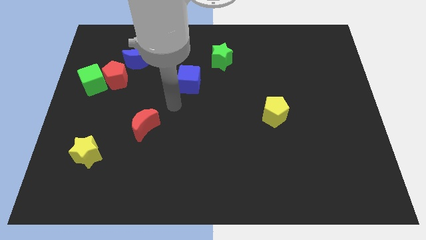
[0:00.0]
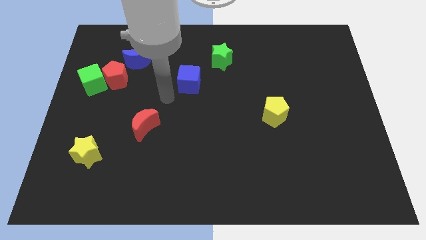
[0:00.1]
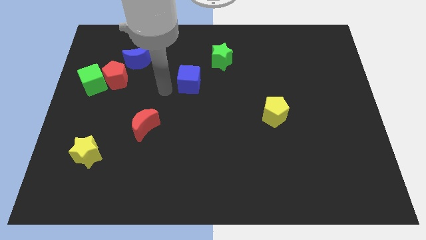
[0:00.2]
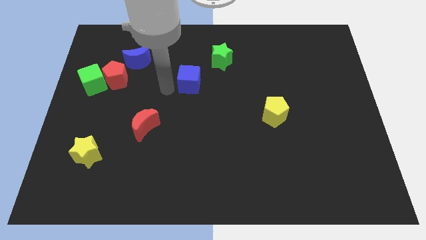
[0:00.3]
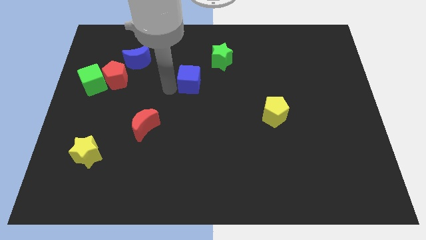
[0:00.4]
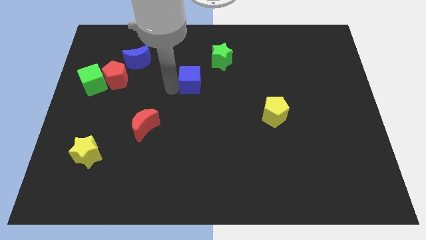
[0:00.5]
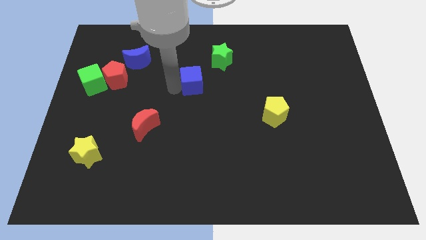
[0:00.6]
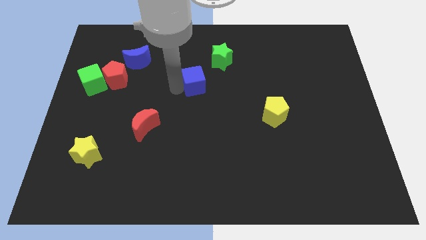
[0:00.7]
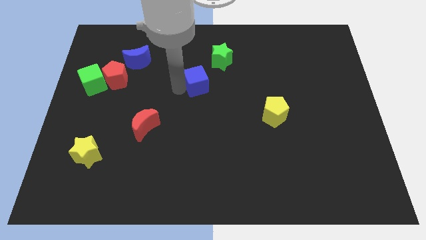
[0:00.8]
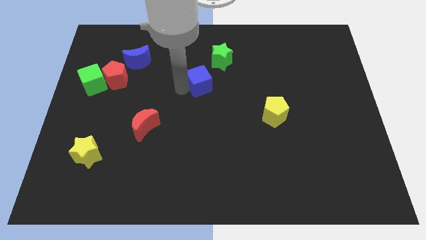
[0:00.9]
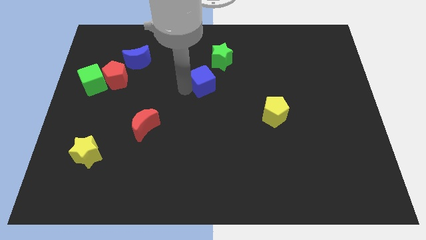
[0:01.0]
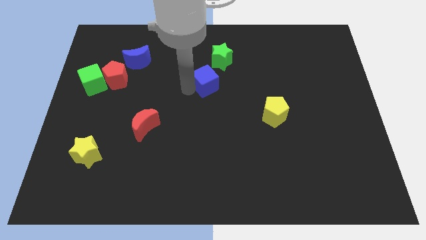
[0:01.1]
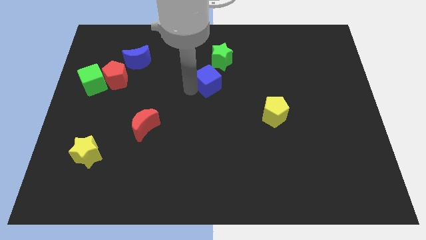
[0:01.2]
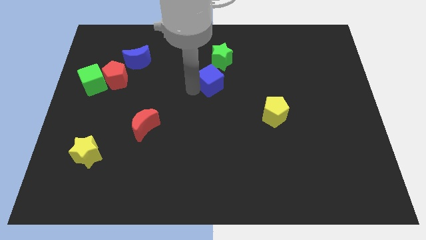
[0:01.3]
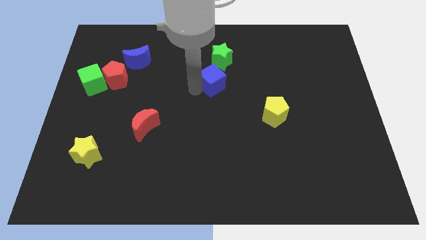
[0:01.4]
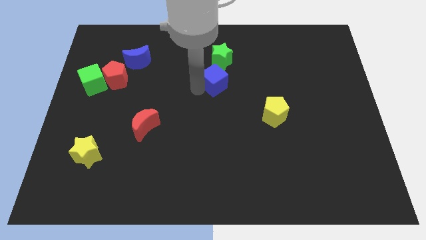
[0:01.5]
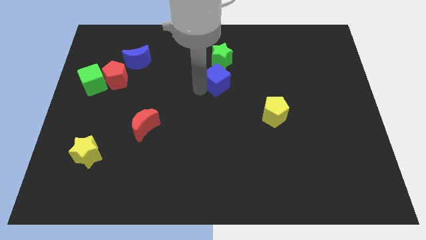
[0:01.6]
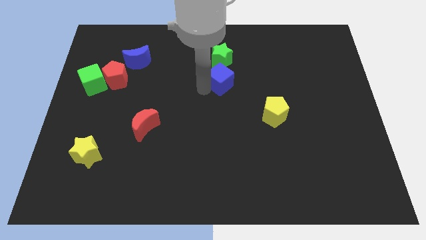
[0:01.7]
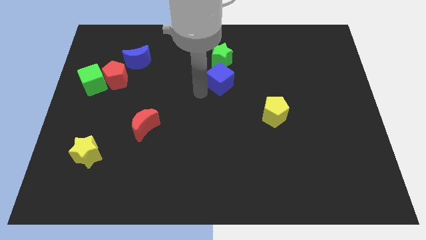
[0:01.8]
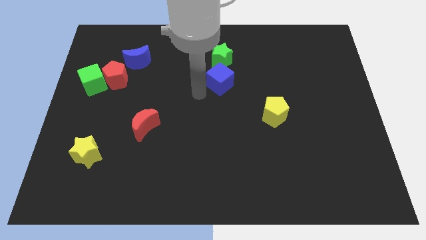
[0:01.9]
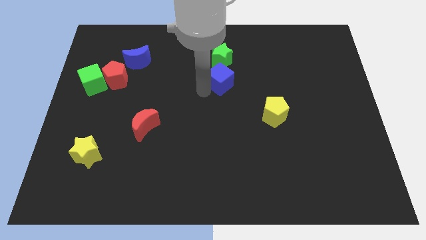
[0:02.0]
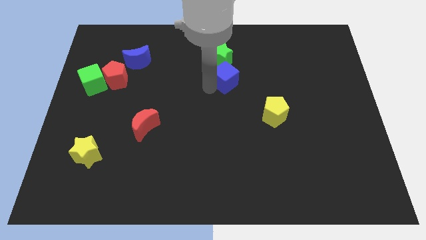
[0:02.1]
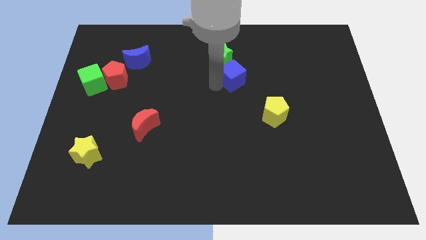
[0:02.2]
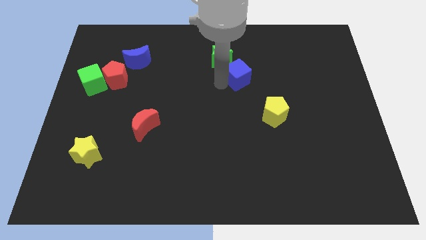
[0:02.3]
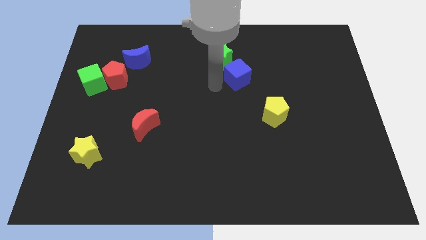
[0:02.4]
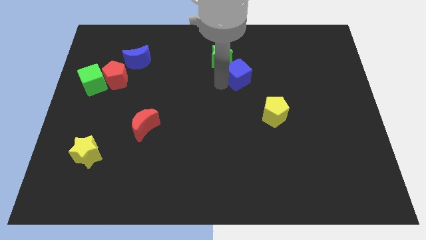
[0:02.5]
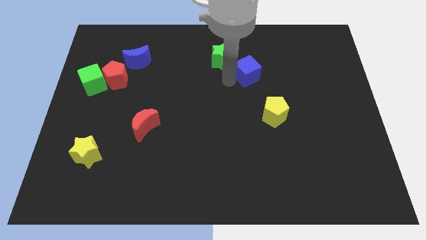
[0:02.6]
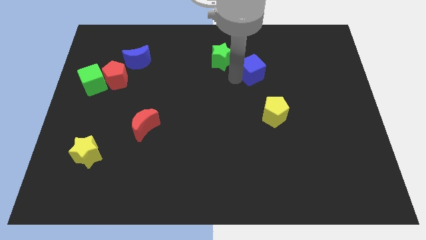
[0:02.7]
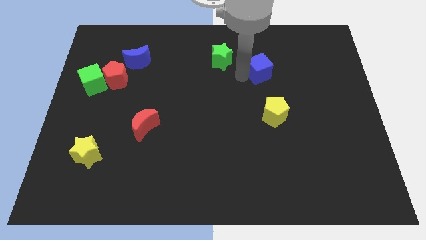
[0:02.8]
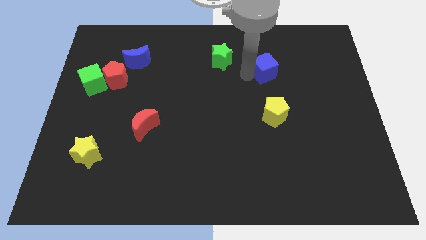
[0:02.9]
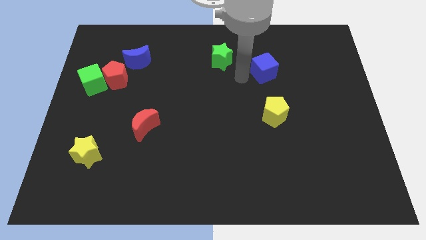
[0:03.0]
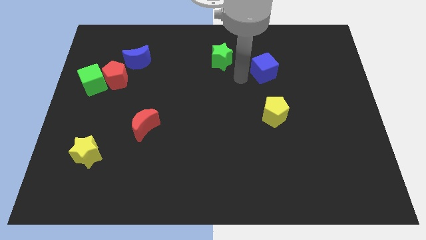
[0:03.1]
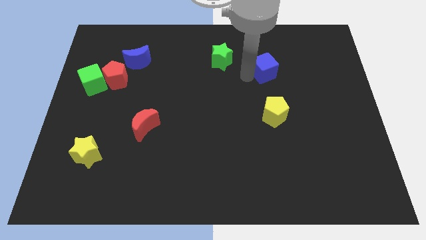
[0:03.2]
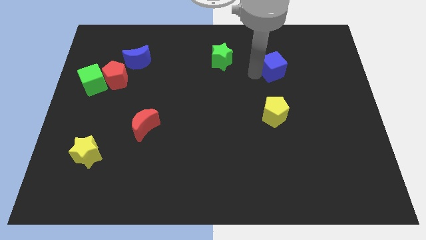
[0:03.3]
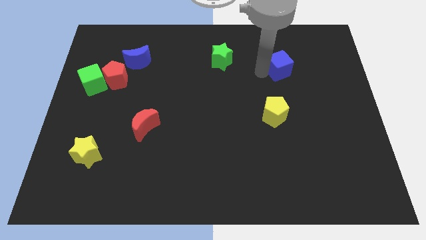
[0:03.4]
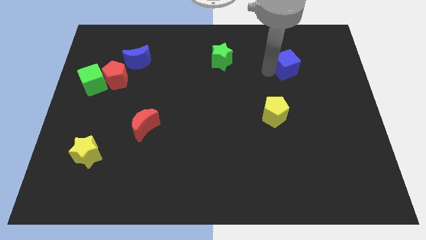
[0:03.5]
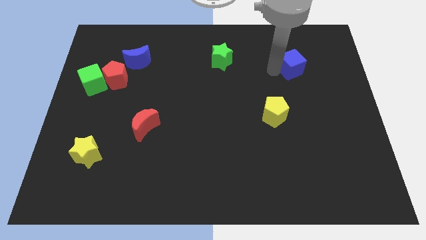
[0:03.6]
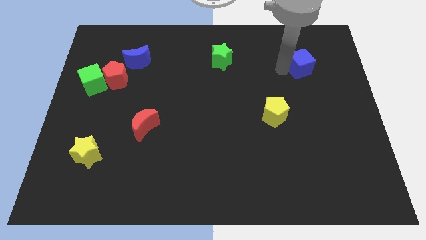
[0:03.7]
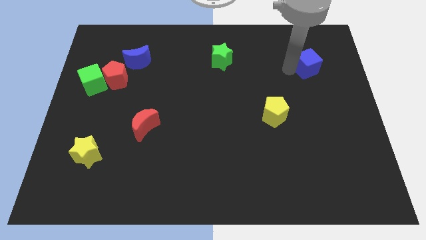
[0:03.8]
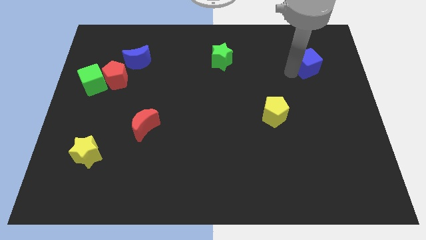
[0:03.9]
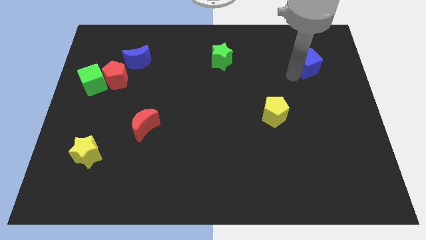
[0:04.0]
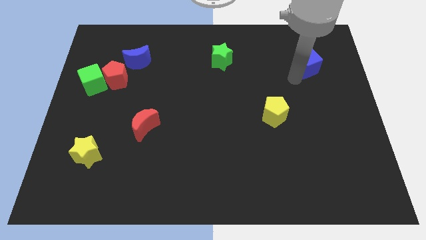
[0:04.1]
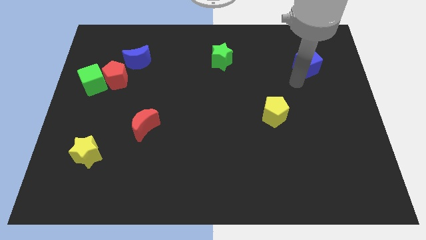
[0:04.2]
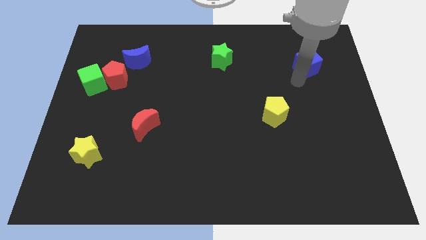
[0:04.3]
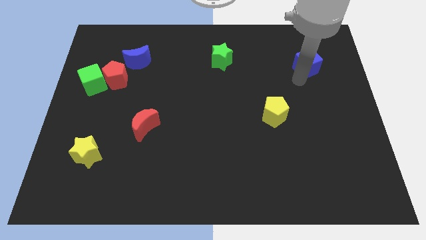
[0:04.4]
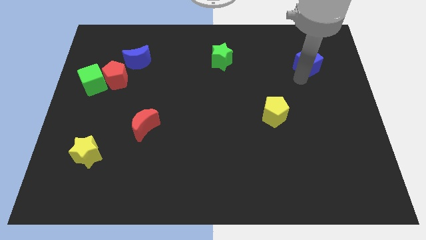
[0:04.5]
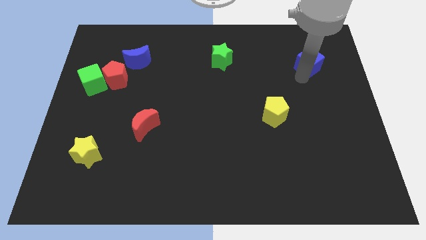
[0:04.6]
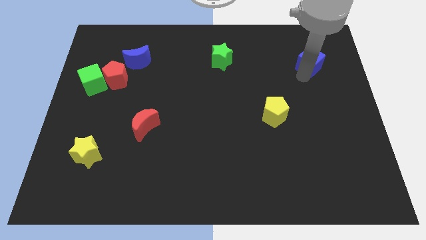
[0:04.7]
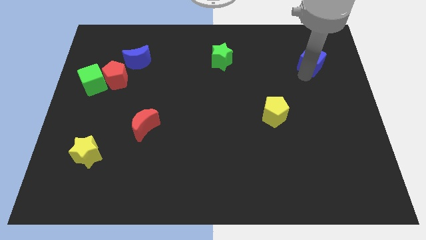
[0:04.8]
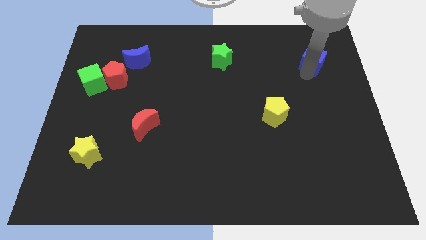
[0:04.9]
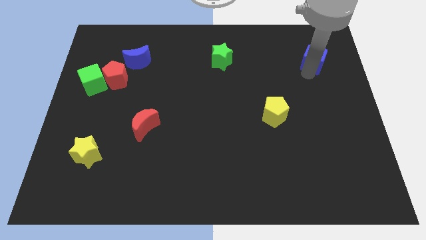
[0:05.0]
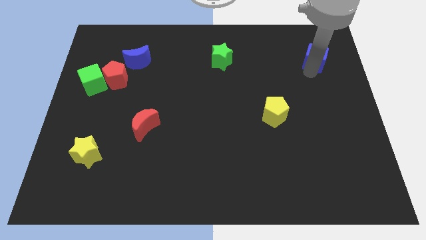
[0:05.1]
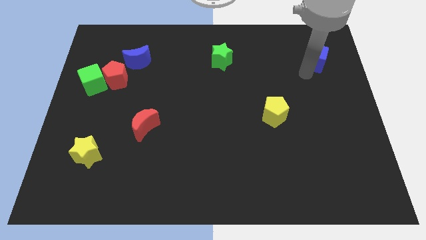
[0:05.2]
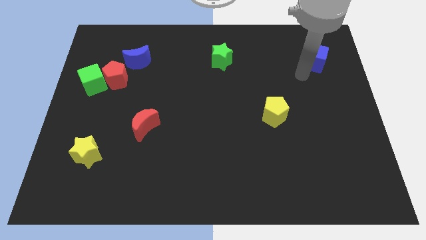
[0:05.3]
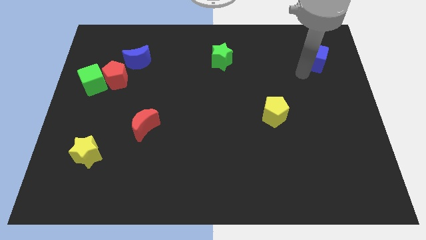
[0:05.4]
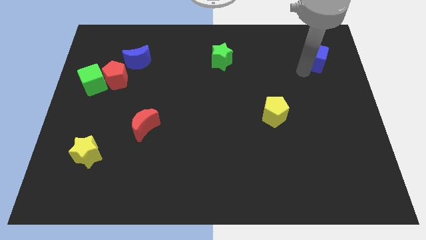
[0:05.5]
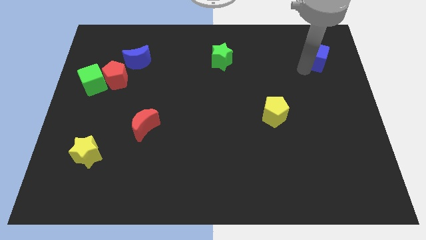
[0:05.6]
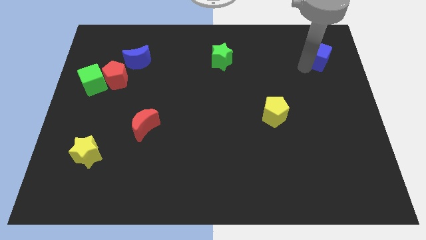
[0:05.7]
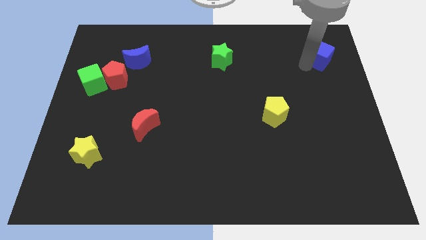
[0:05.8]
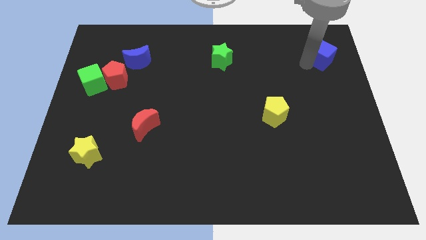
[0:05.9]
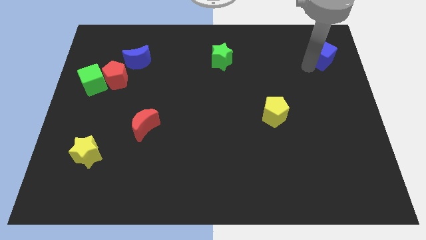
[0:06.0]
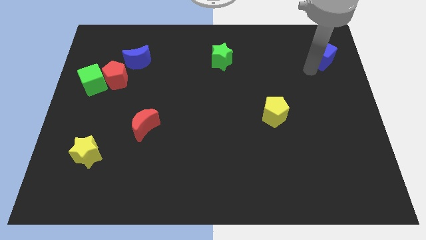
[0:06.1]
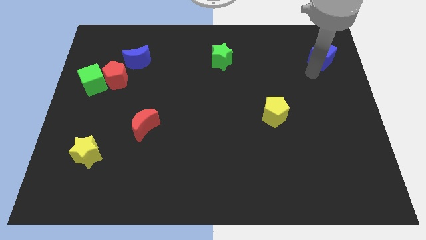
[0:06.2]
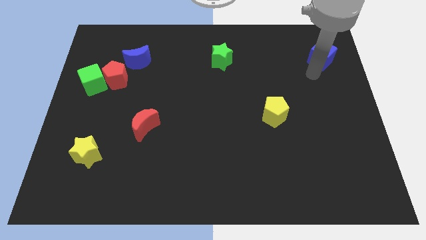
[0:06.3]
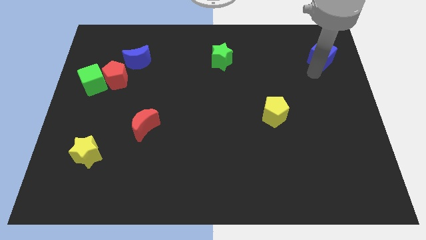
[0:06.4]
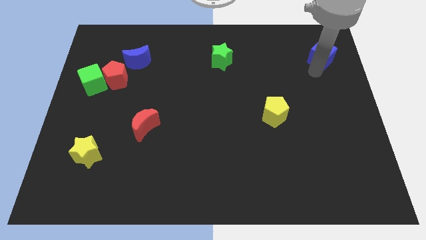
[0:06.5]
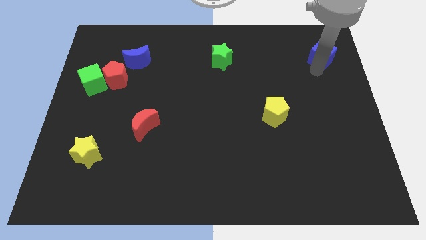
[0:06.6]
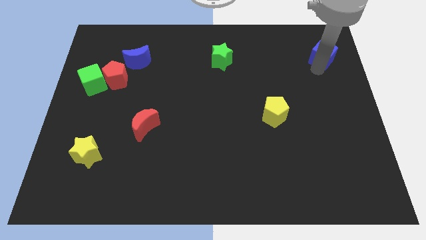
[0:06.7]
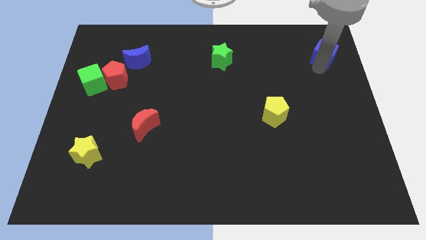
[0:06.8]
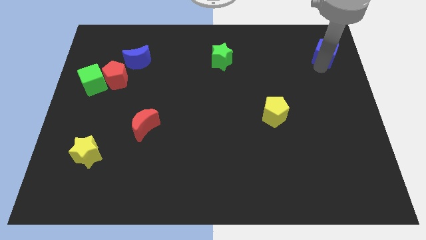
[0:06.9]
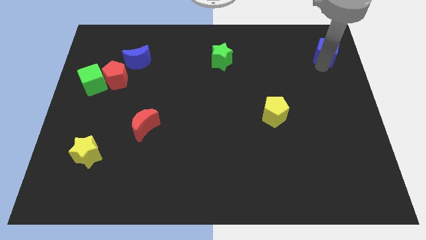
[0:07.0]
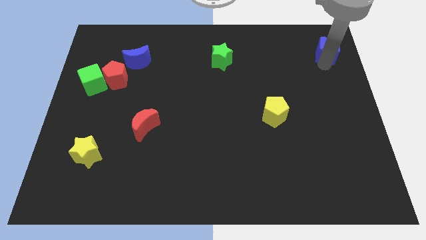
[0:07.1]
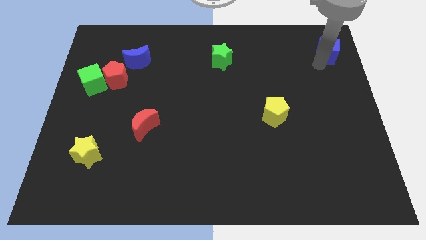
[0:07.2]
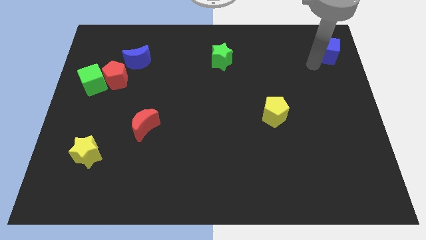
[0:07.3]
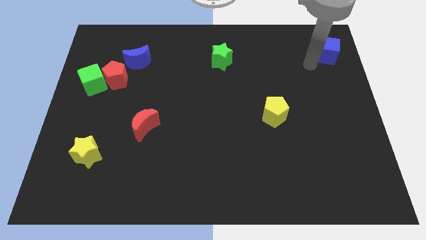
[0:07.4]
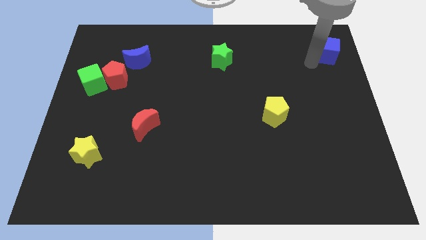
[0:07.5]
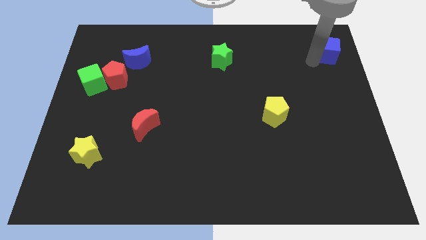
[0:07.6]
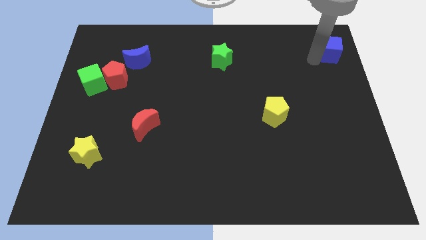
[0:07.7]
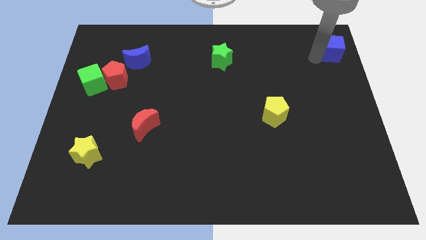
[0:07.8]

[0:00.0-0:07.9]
put the blue cube to the upper right corner
